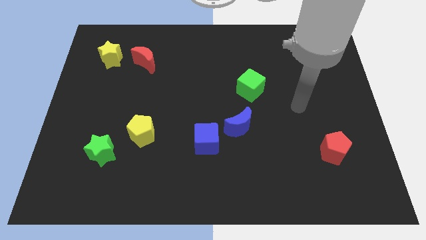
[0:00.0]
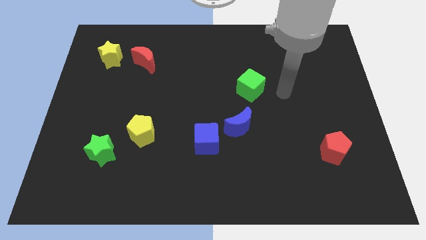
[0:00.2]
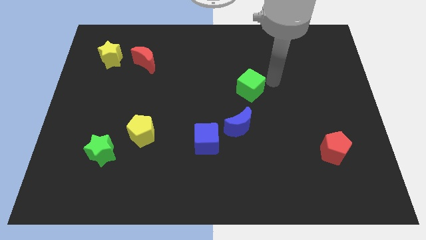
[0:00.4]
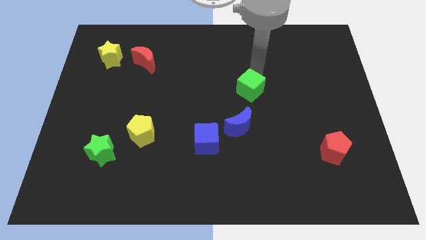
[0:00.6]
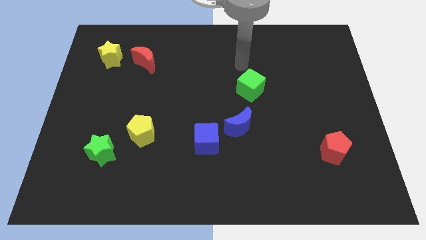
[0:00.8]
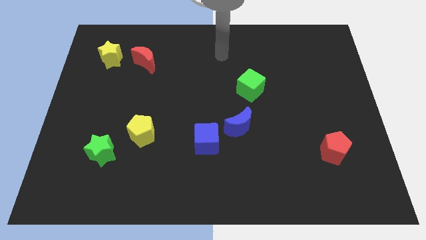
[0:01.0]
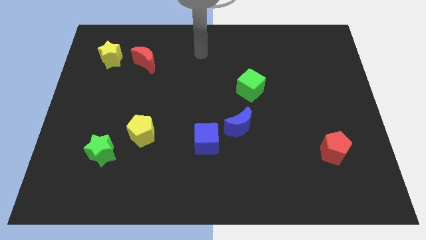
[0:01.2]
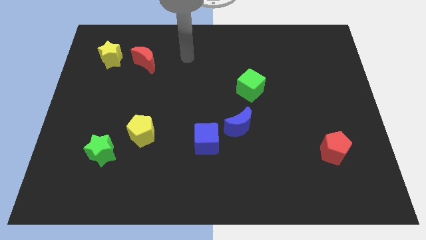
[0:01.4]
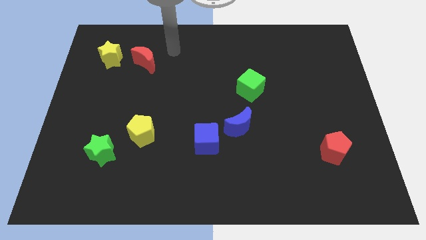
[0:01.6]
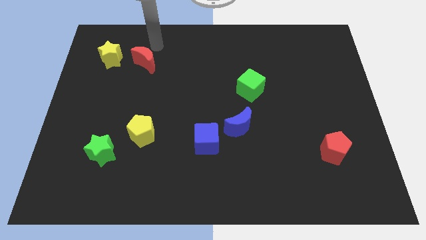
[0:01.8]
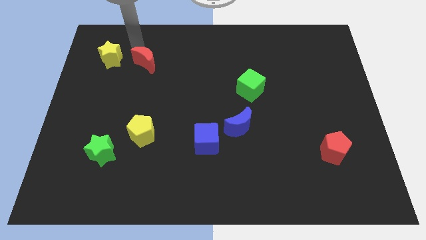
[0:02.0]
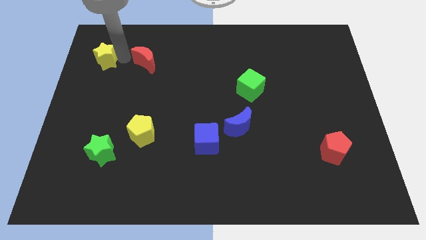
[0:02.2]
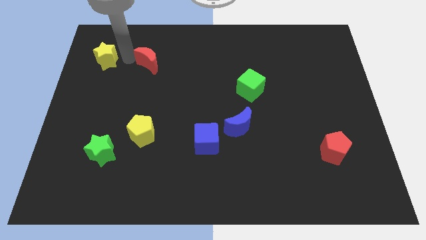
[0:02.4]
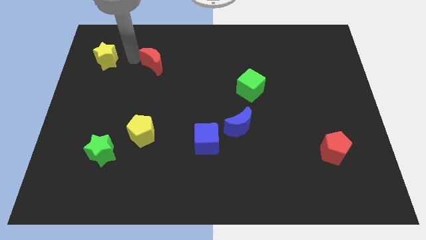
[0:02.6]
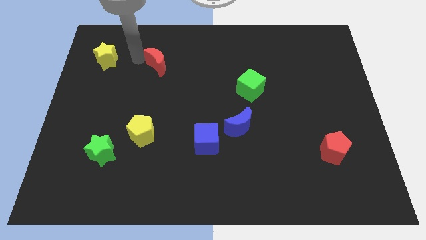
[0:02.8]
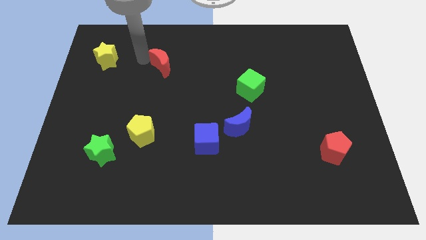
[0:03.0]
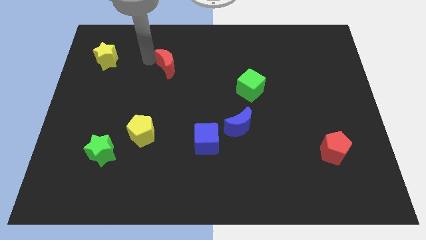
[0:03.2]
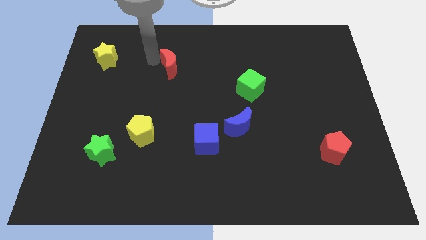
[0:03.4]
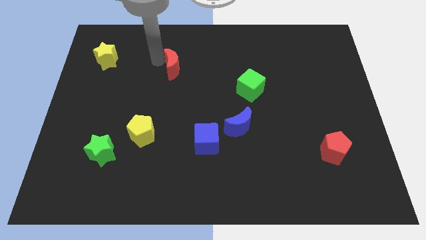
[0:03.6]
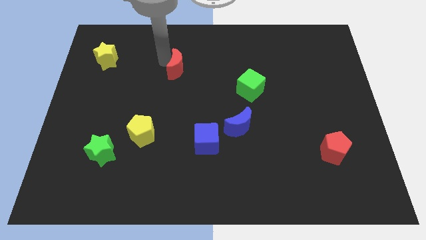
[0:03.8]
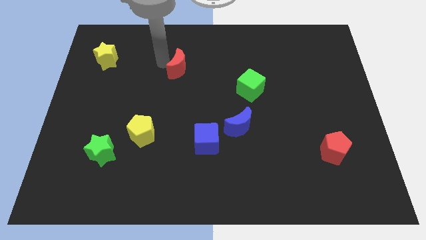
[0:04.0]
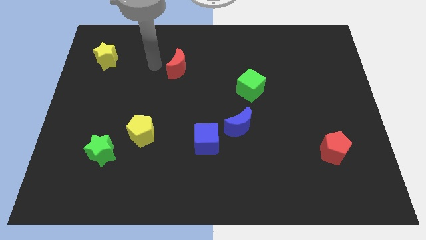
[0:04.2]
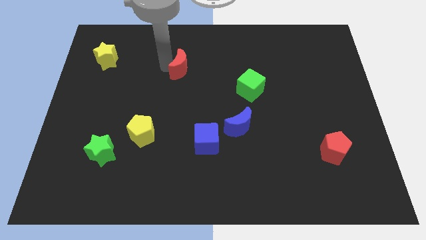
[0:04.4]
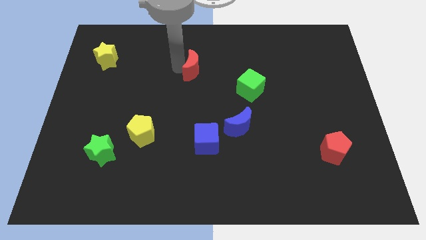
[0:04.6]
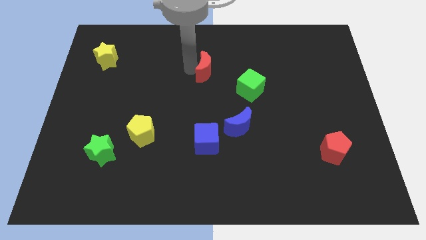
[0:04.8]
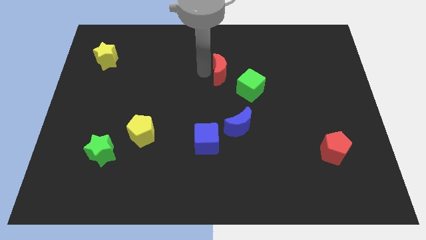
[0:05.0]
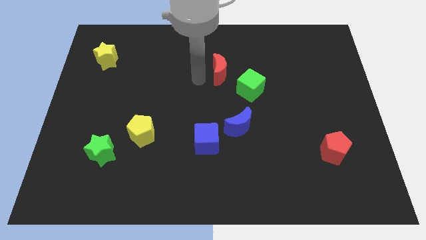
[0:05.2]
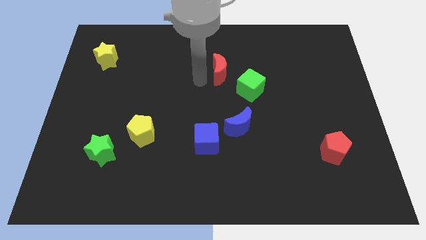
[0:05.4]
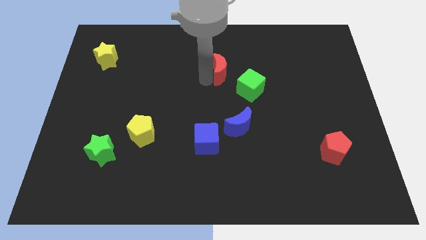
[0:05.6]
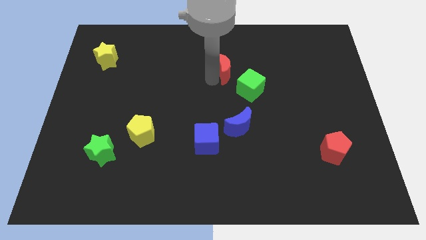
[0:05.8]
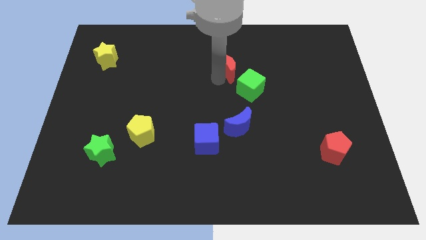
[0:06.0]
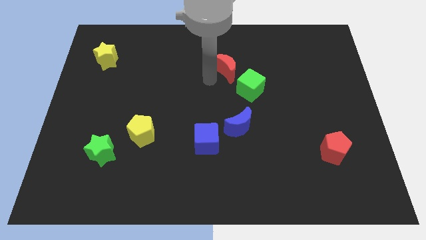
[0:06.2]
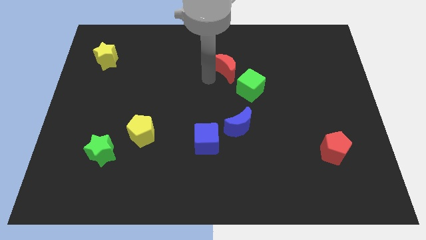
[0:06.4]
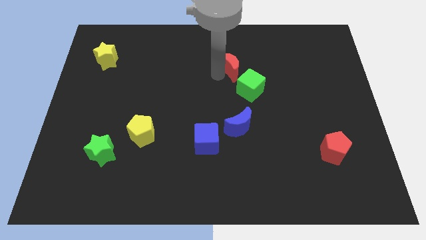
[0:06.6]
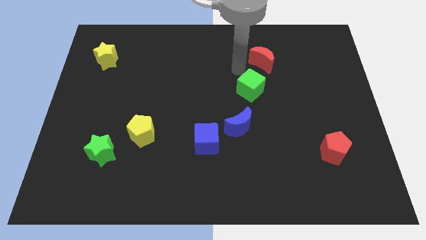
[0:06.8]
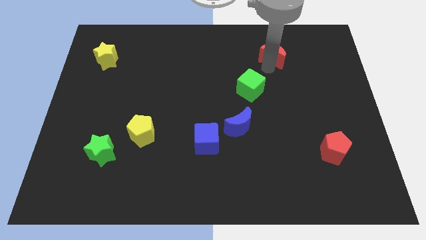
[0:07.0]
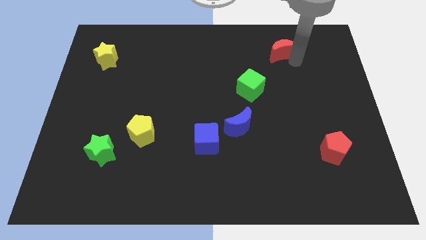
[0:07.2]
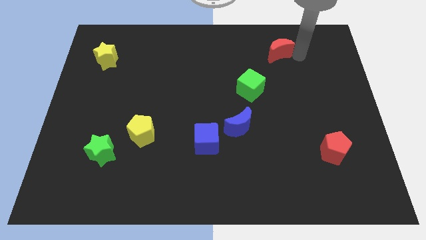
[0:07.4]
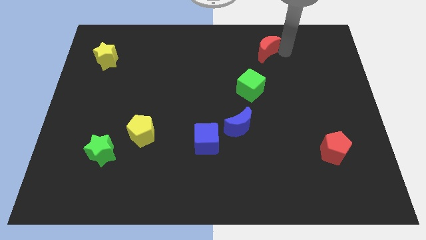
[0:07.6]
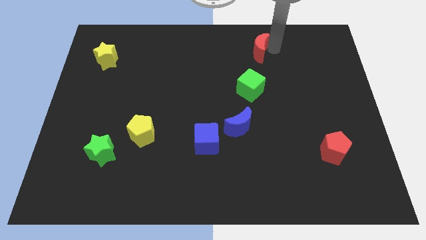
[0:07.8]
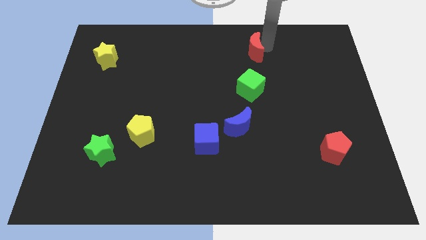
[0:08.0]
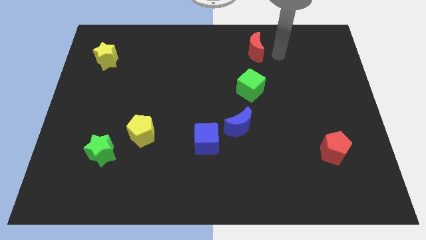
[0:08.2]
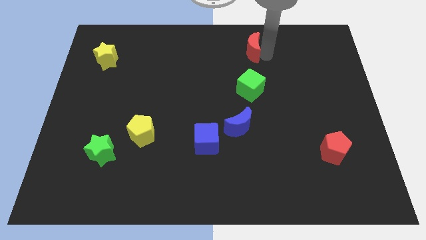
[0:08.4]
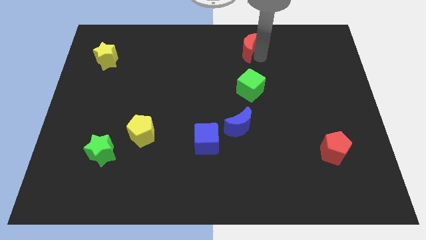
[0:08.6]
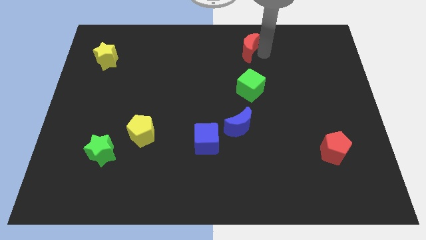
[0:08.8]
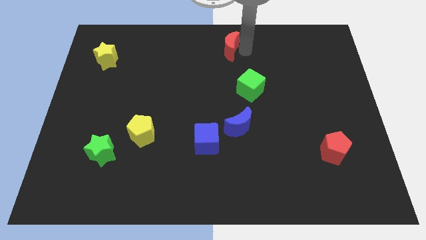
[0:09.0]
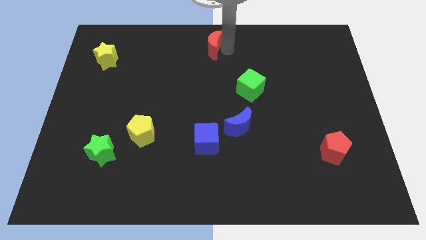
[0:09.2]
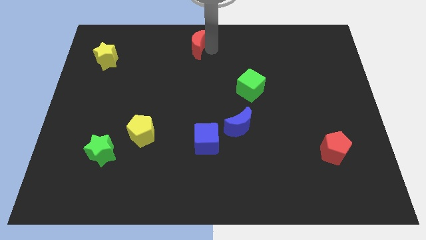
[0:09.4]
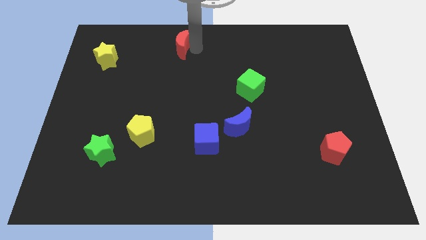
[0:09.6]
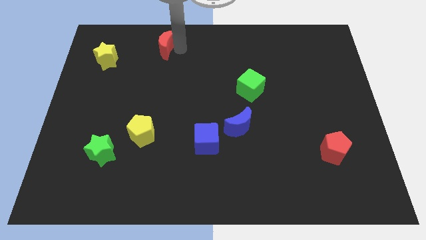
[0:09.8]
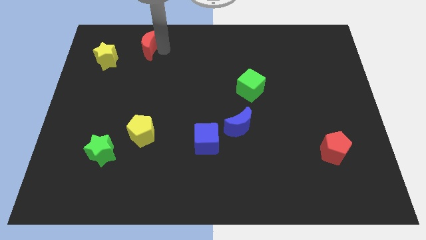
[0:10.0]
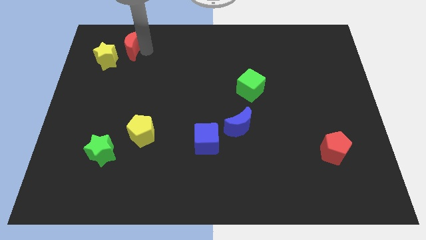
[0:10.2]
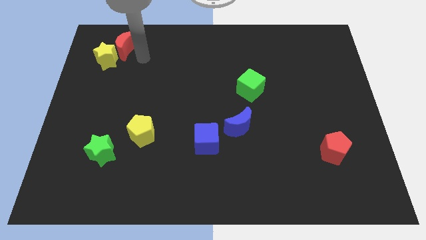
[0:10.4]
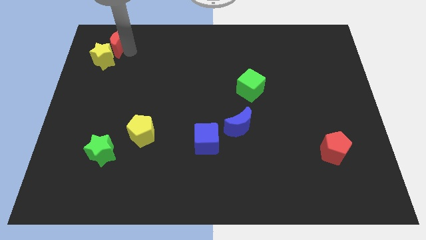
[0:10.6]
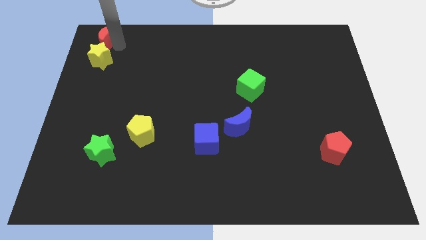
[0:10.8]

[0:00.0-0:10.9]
move the red moon to the top left

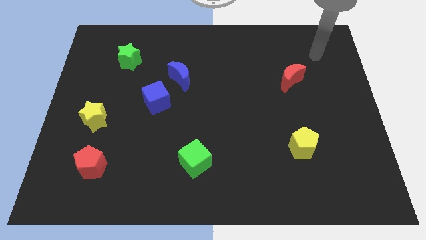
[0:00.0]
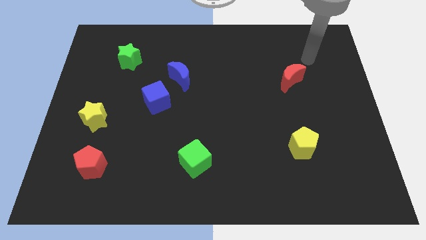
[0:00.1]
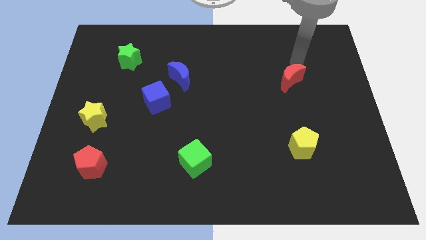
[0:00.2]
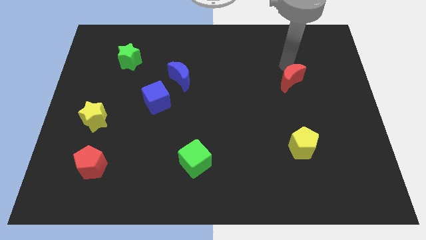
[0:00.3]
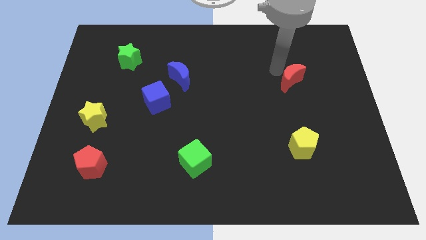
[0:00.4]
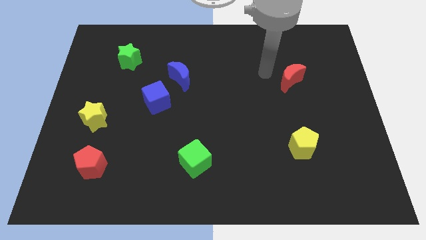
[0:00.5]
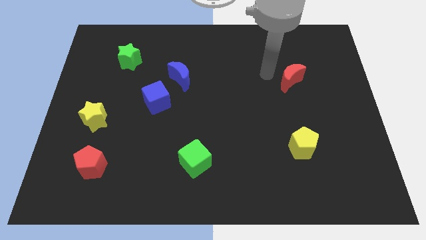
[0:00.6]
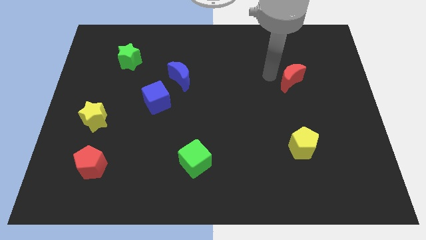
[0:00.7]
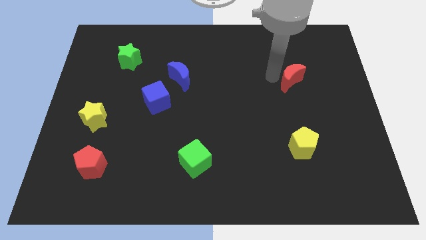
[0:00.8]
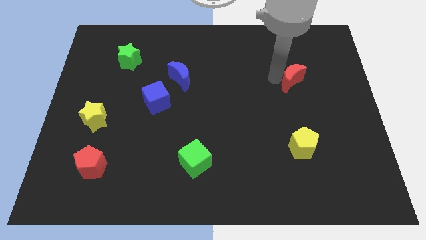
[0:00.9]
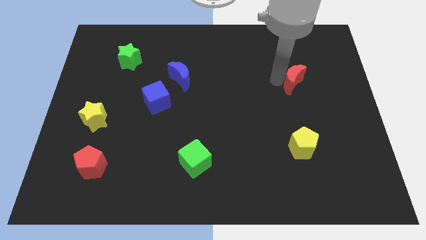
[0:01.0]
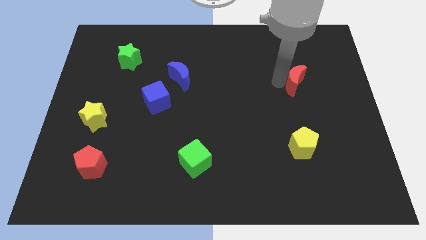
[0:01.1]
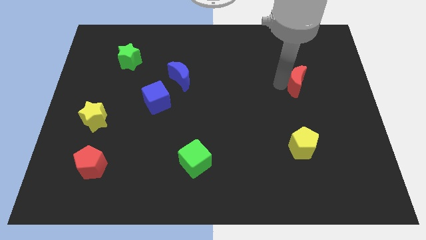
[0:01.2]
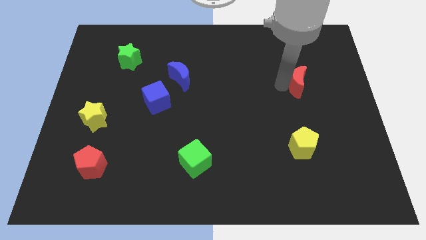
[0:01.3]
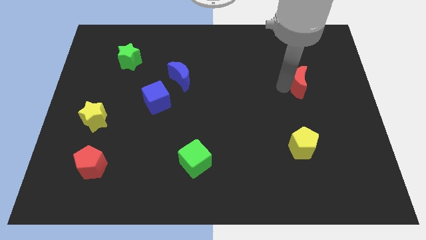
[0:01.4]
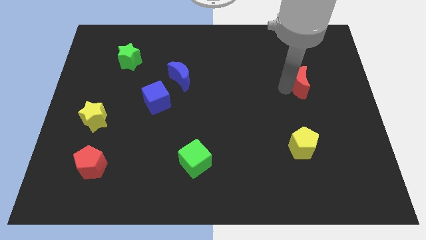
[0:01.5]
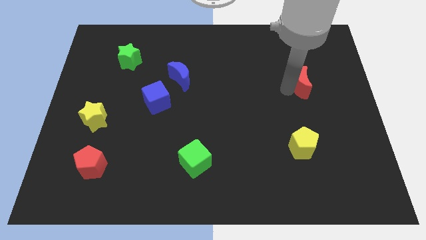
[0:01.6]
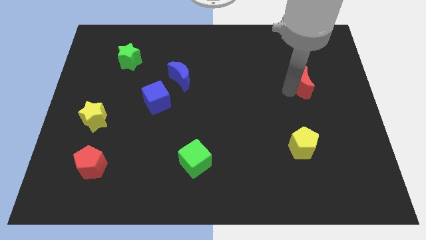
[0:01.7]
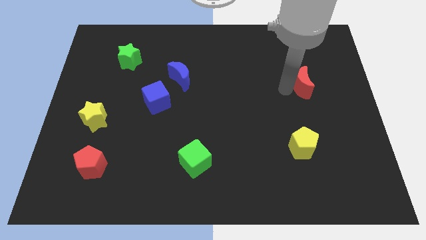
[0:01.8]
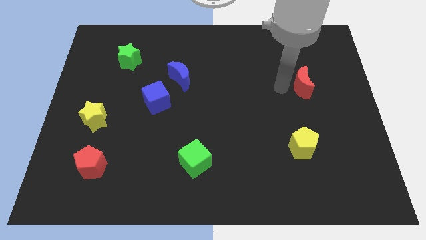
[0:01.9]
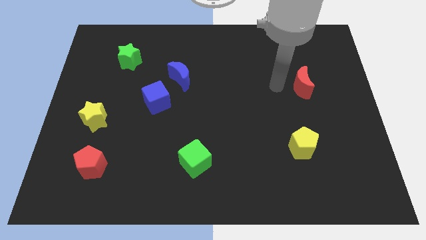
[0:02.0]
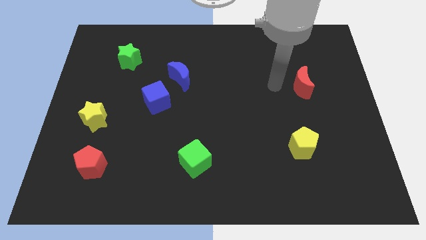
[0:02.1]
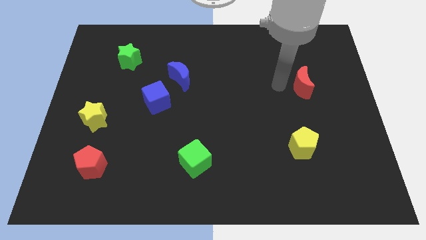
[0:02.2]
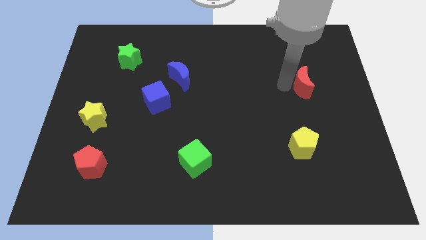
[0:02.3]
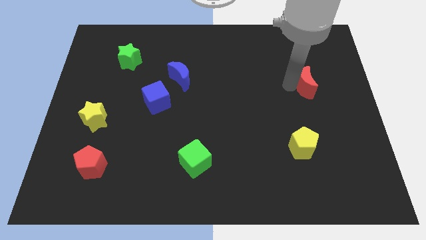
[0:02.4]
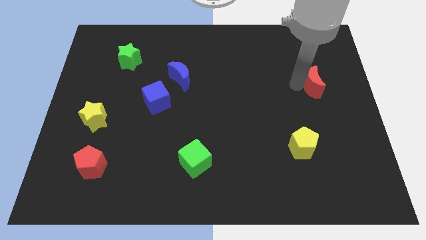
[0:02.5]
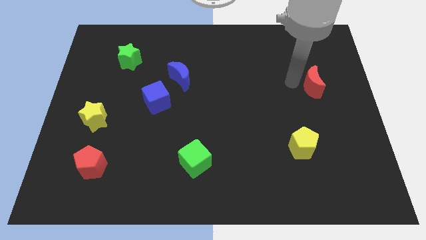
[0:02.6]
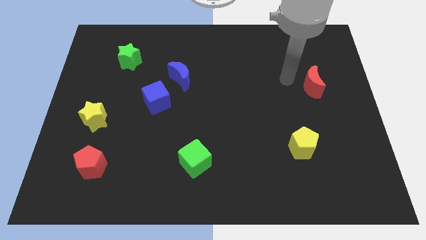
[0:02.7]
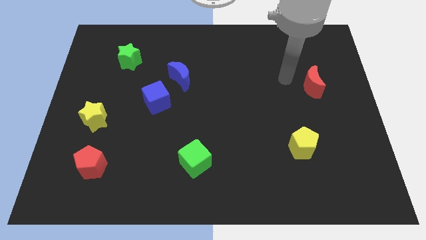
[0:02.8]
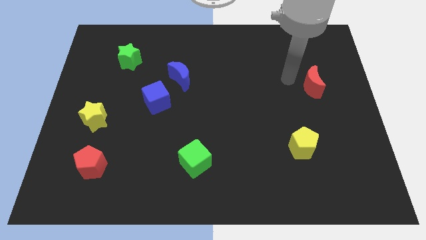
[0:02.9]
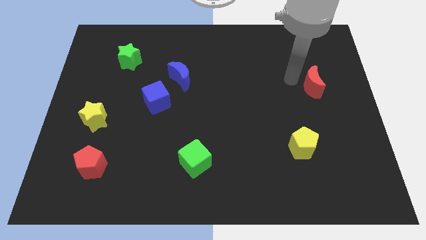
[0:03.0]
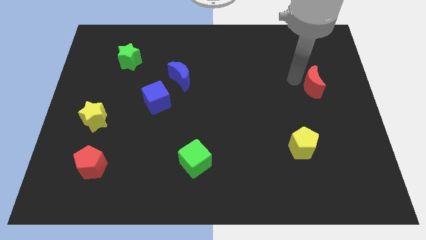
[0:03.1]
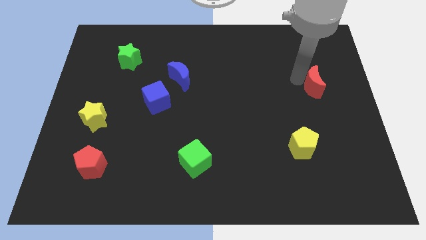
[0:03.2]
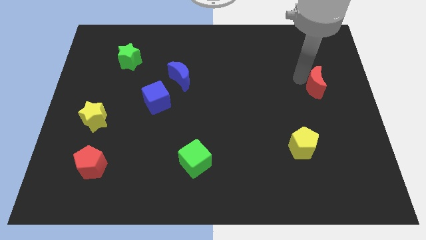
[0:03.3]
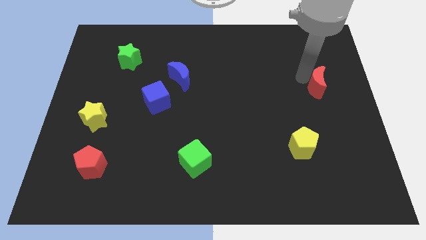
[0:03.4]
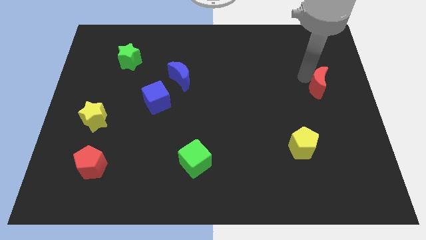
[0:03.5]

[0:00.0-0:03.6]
move the red moon to the right side
